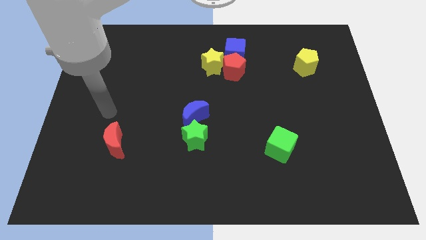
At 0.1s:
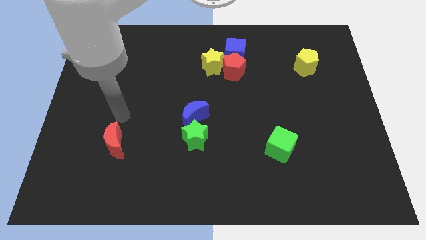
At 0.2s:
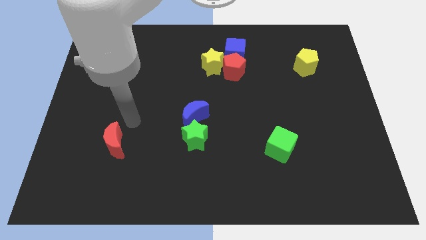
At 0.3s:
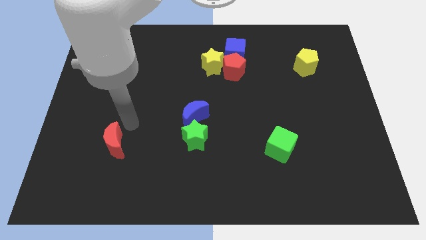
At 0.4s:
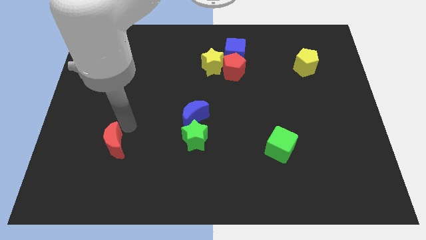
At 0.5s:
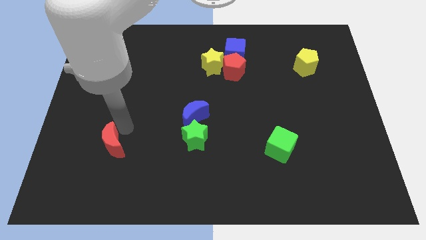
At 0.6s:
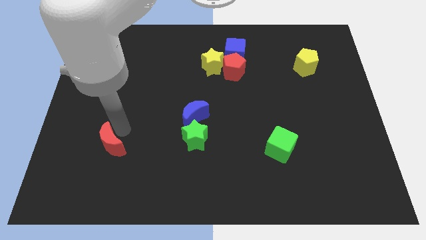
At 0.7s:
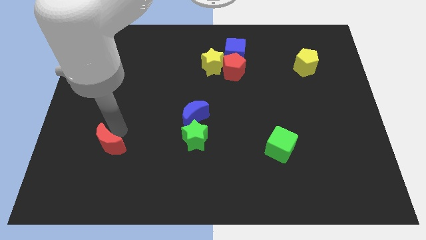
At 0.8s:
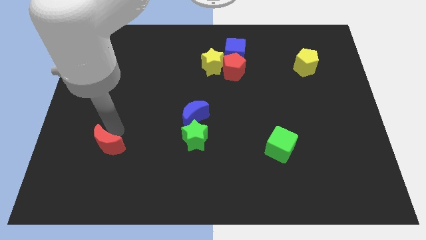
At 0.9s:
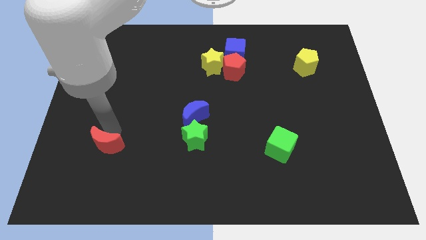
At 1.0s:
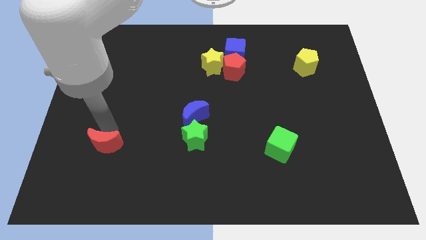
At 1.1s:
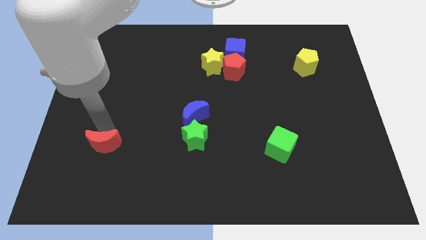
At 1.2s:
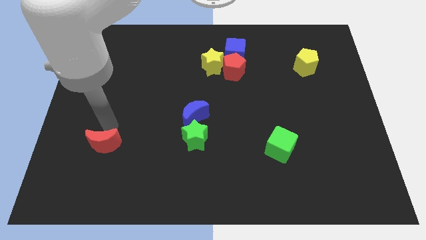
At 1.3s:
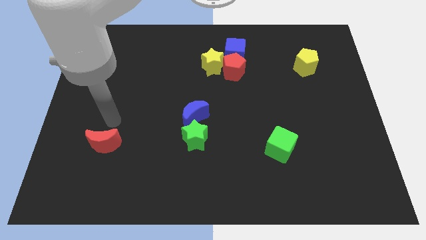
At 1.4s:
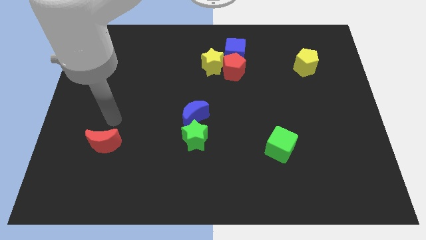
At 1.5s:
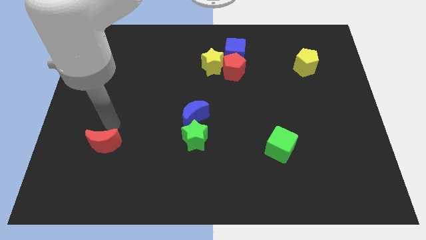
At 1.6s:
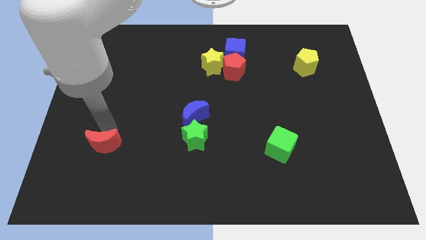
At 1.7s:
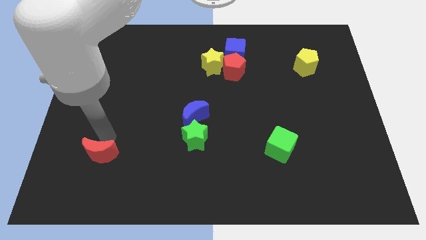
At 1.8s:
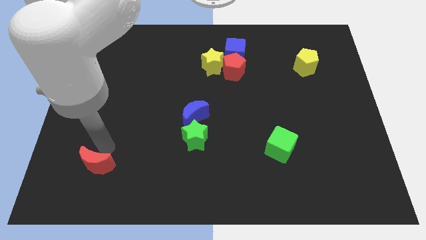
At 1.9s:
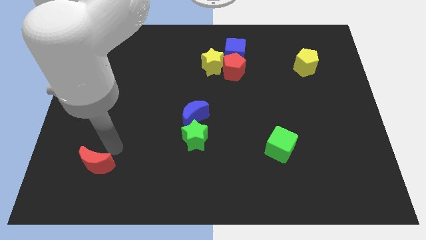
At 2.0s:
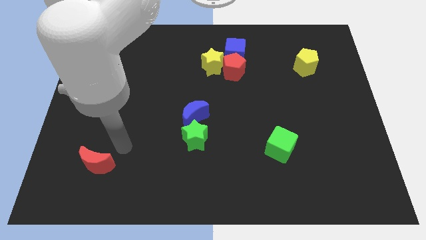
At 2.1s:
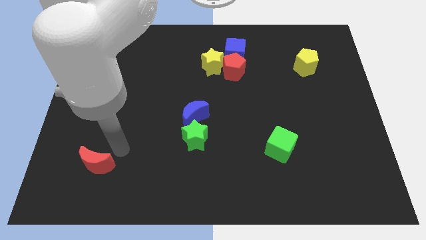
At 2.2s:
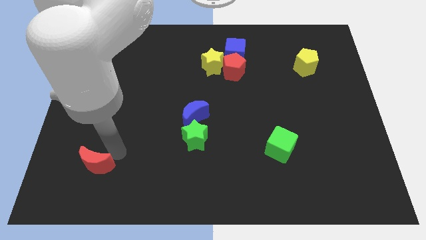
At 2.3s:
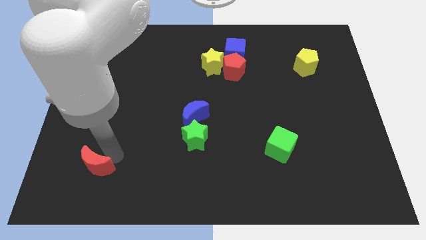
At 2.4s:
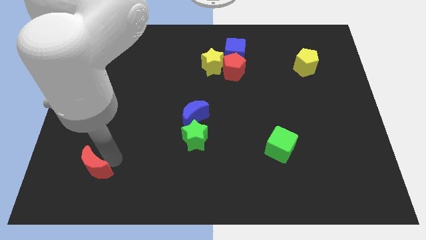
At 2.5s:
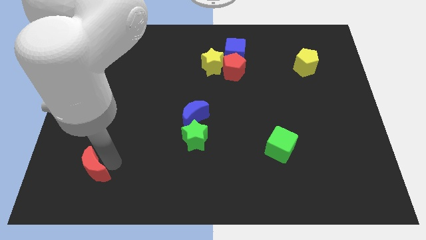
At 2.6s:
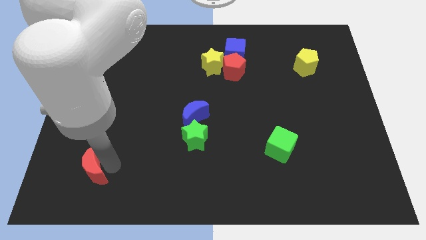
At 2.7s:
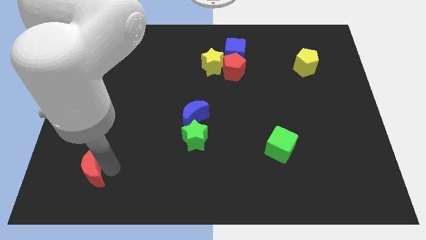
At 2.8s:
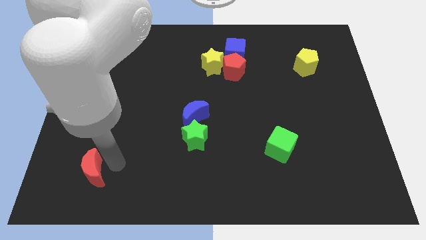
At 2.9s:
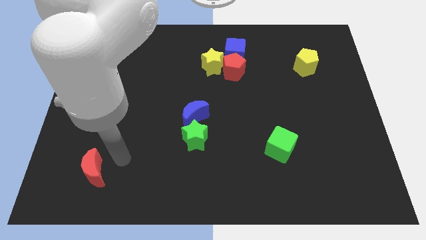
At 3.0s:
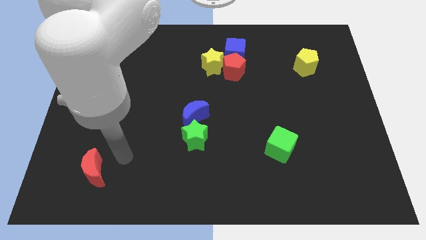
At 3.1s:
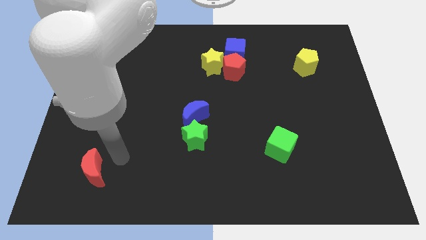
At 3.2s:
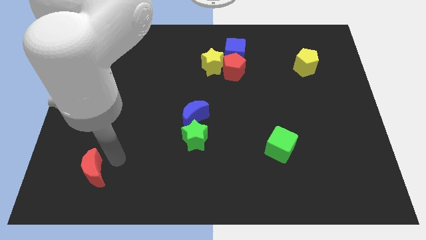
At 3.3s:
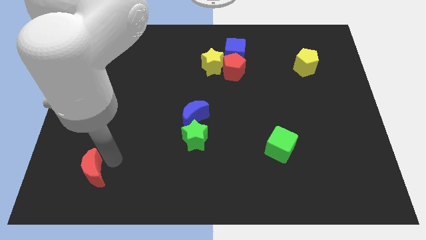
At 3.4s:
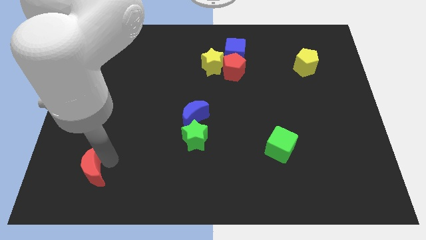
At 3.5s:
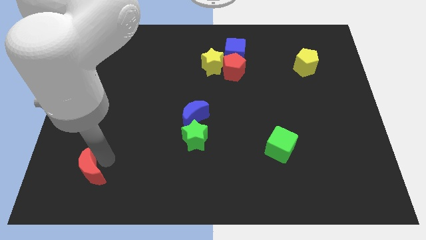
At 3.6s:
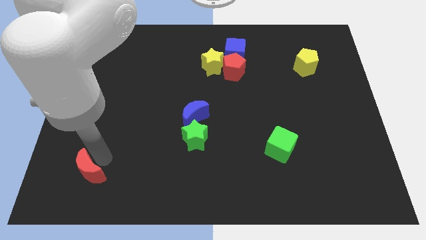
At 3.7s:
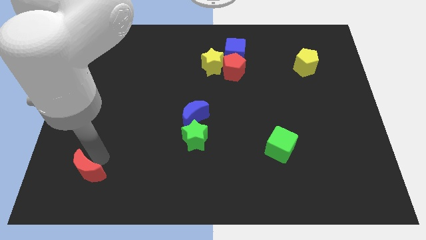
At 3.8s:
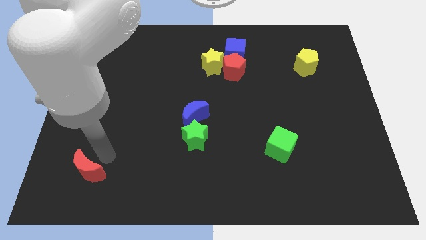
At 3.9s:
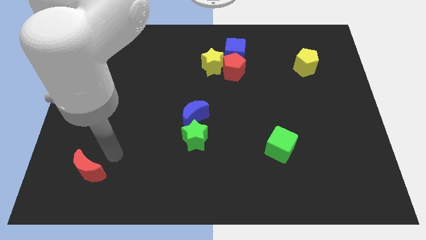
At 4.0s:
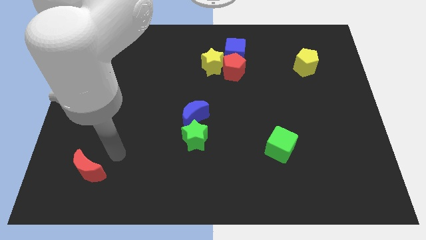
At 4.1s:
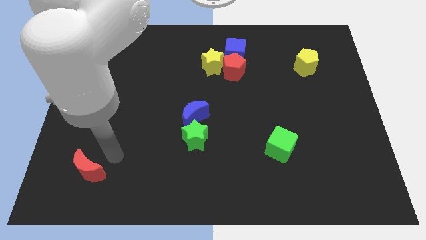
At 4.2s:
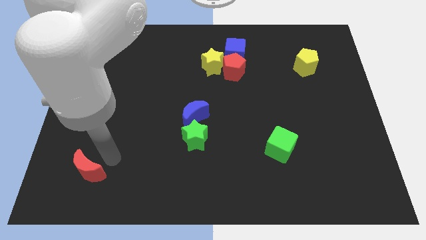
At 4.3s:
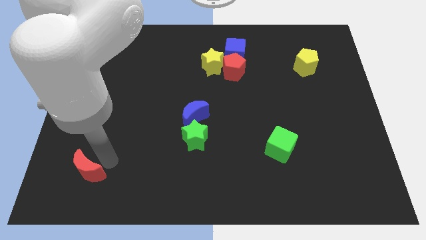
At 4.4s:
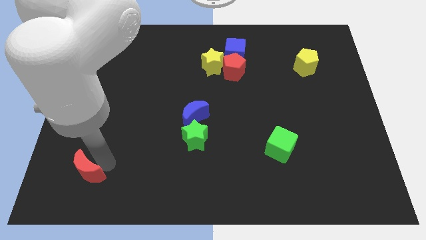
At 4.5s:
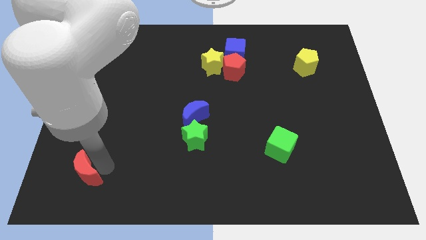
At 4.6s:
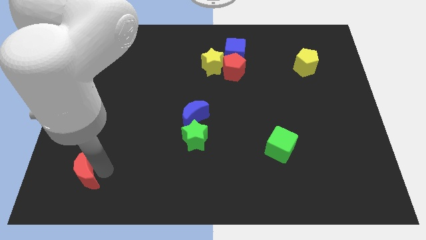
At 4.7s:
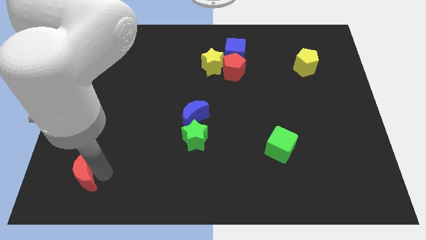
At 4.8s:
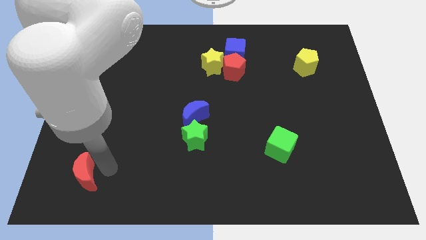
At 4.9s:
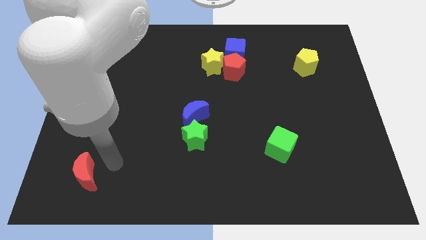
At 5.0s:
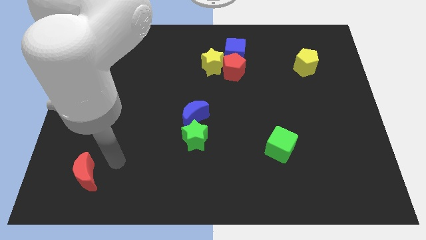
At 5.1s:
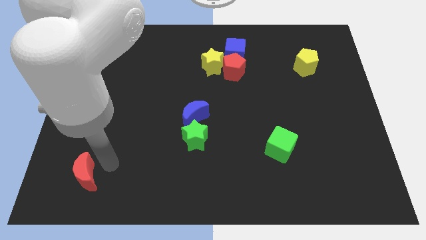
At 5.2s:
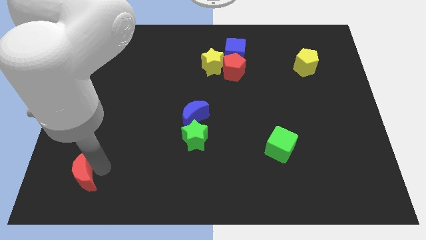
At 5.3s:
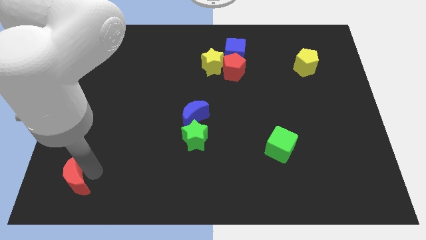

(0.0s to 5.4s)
slide the red moon to the lower left corner

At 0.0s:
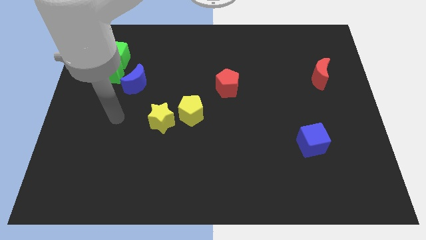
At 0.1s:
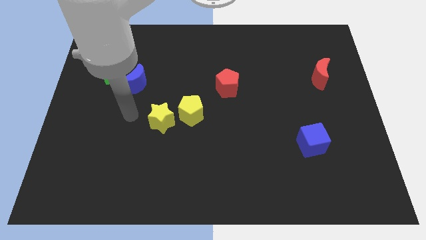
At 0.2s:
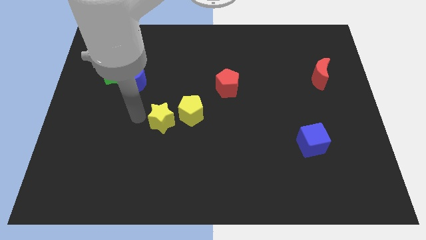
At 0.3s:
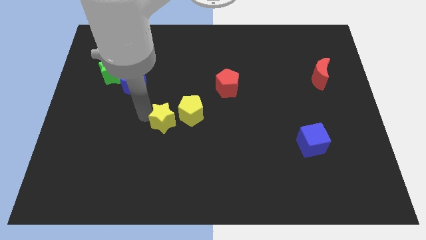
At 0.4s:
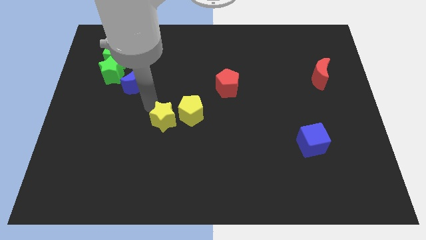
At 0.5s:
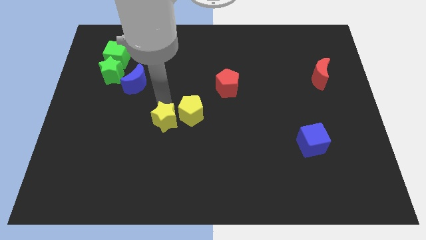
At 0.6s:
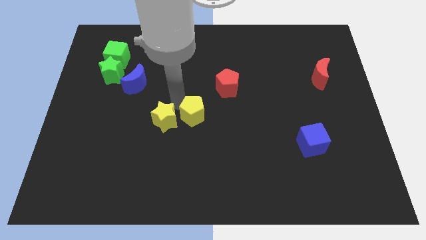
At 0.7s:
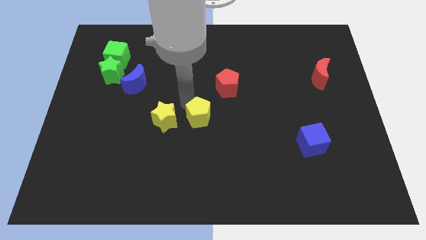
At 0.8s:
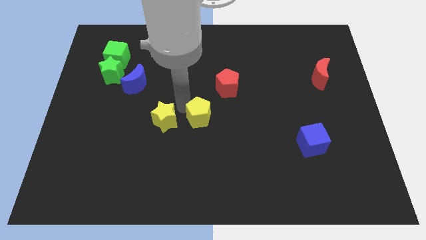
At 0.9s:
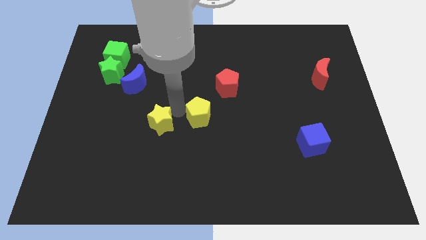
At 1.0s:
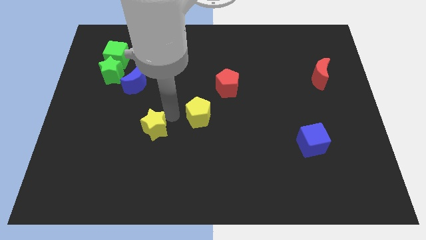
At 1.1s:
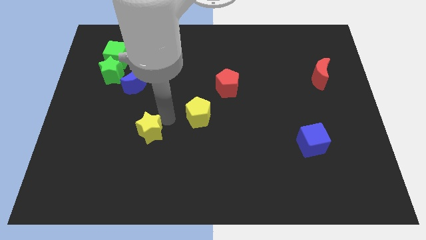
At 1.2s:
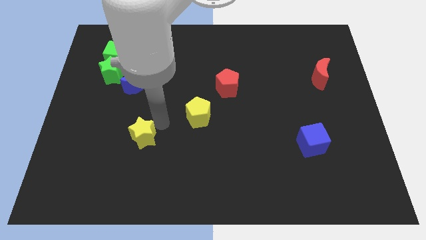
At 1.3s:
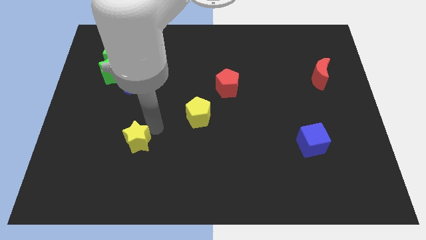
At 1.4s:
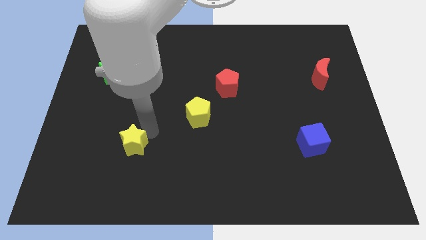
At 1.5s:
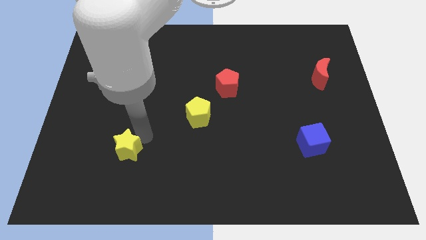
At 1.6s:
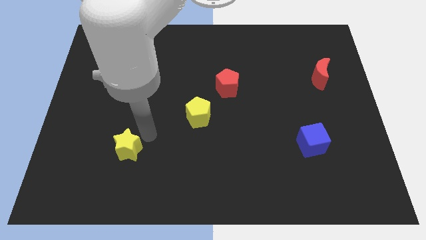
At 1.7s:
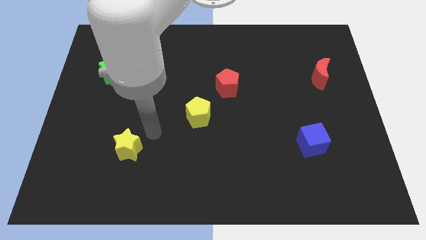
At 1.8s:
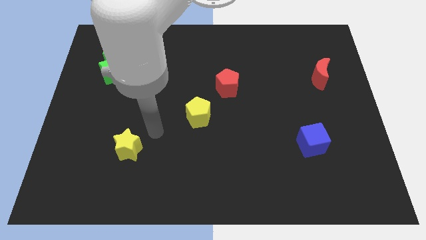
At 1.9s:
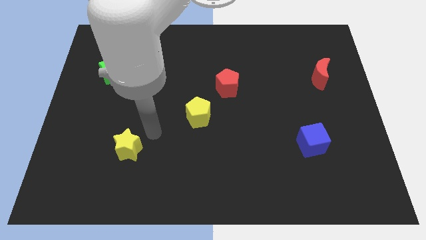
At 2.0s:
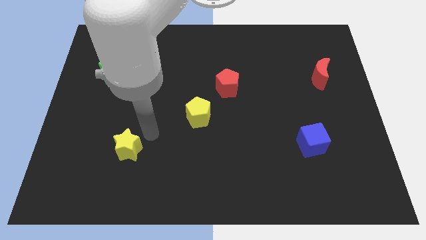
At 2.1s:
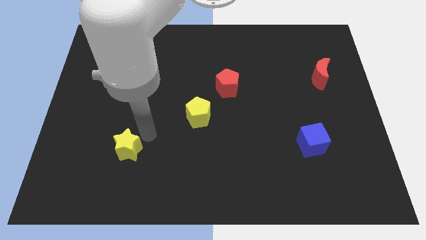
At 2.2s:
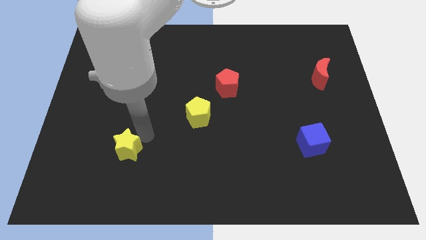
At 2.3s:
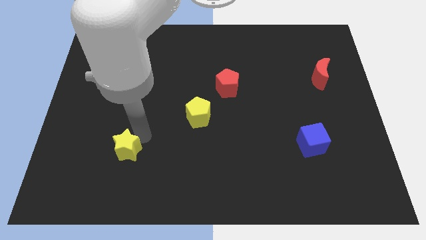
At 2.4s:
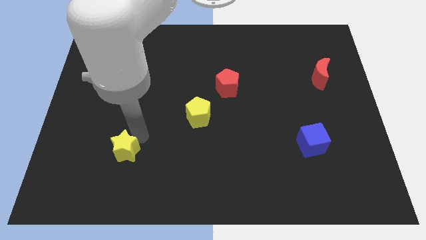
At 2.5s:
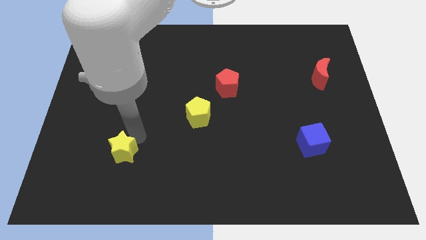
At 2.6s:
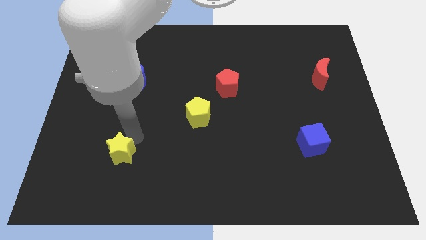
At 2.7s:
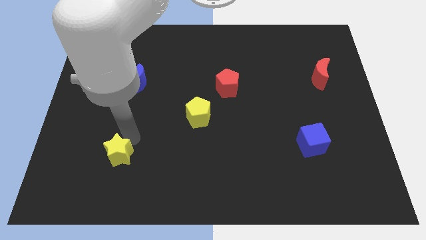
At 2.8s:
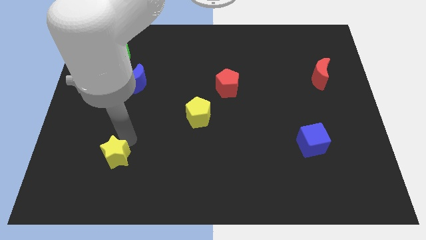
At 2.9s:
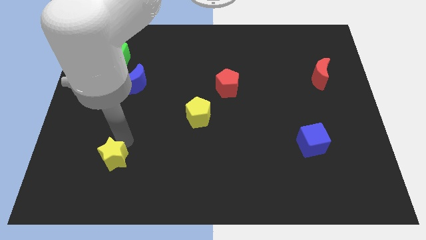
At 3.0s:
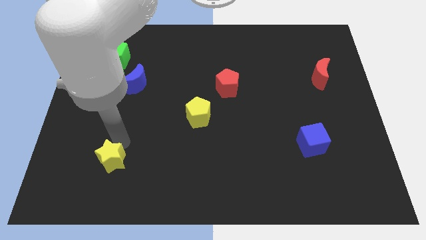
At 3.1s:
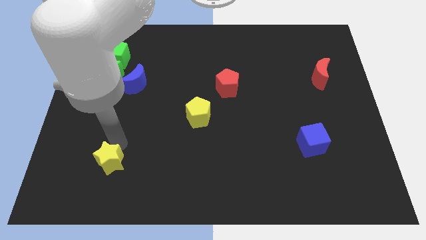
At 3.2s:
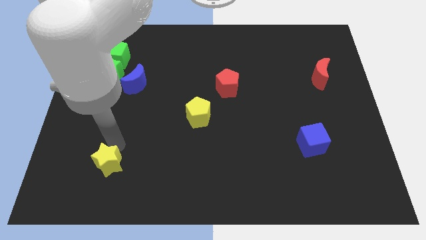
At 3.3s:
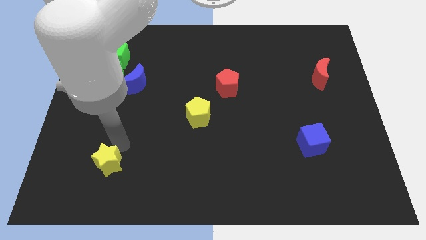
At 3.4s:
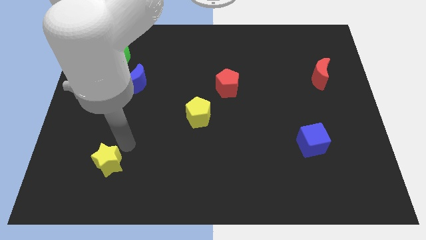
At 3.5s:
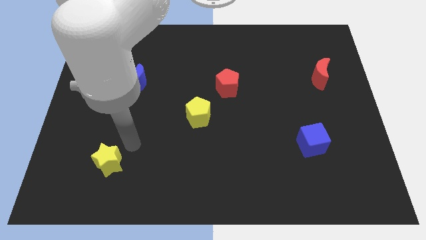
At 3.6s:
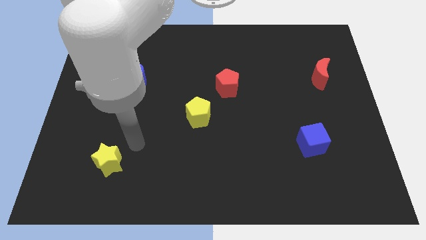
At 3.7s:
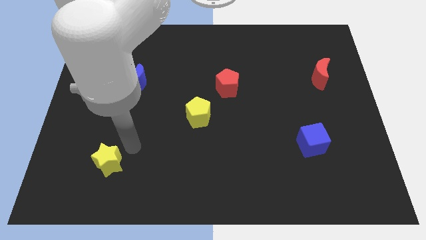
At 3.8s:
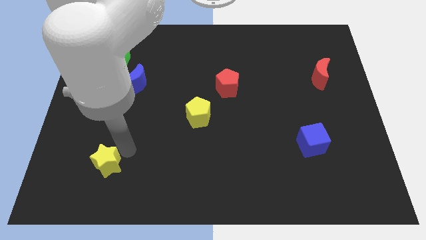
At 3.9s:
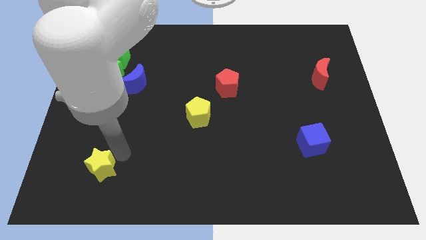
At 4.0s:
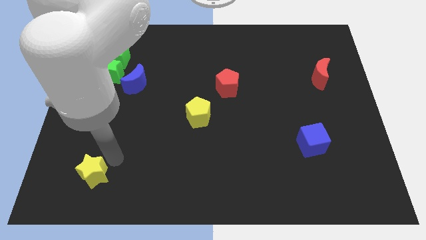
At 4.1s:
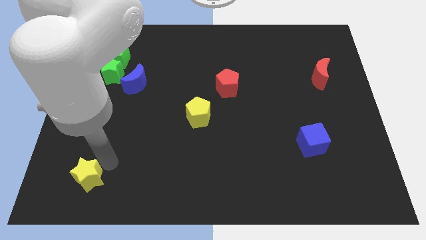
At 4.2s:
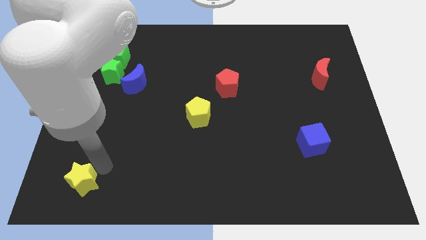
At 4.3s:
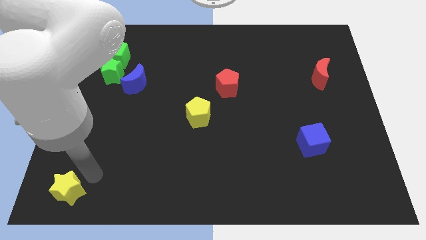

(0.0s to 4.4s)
slide the yellow star to the bottom left of the board
